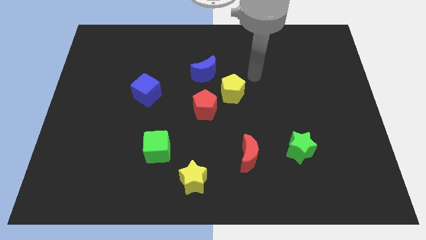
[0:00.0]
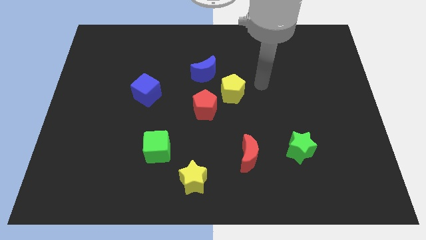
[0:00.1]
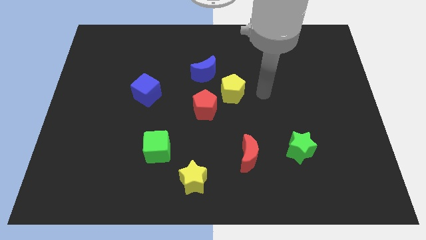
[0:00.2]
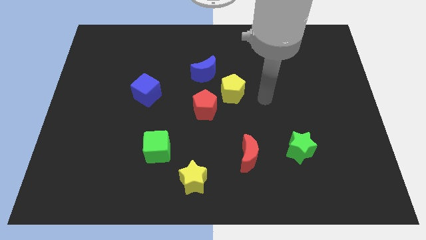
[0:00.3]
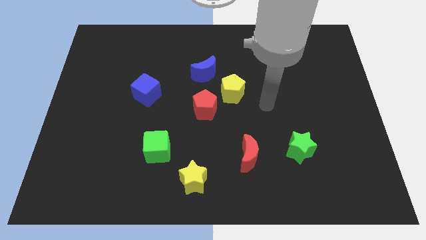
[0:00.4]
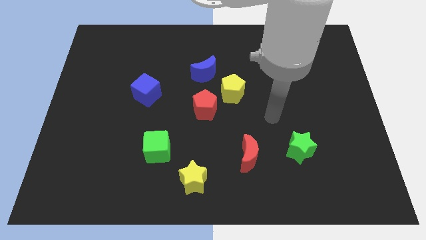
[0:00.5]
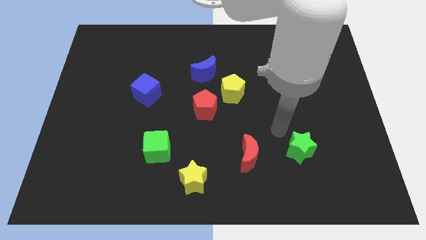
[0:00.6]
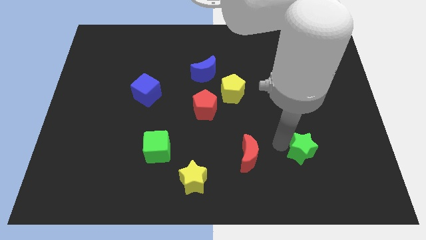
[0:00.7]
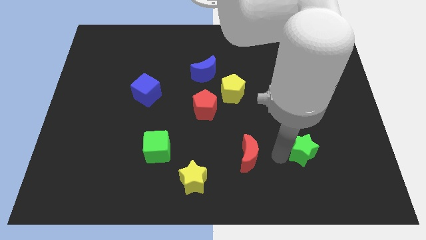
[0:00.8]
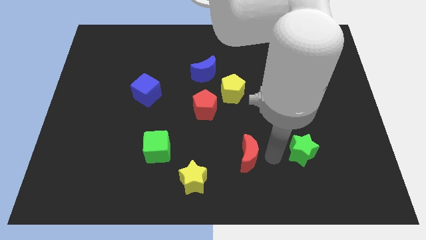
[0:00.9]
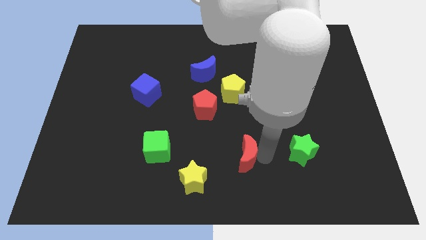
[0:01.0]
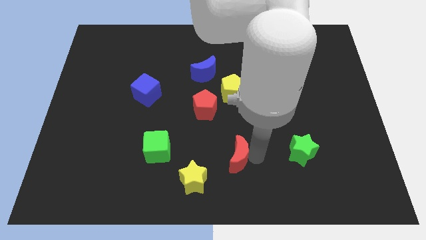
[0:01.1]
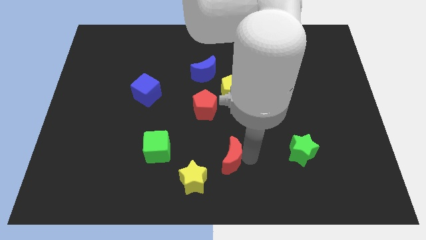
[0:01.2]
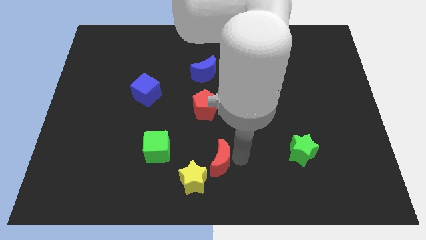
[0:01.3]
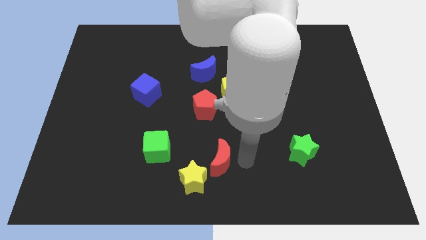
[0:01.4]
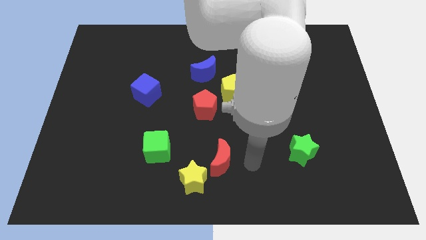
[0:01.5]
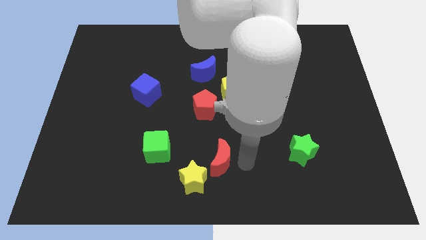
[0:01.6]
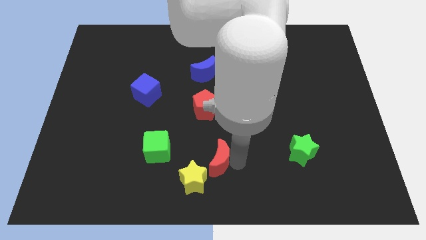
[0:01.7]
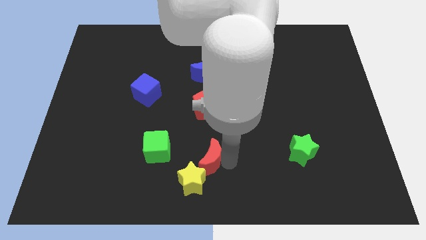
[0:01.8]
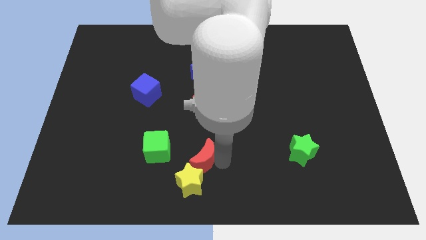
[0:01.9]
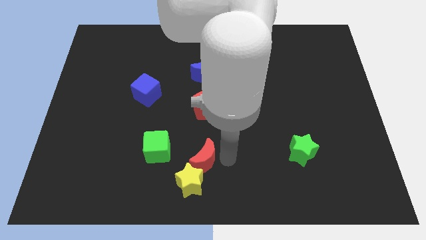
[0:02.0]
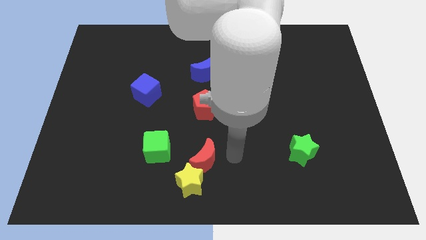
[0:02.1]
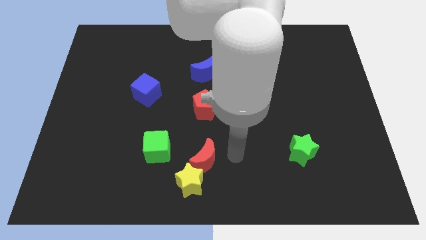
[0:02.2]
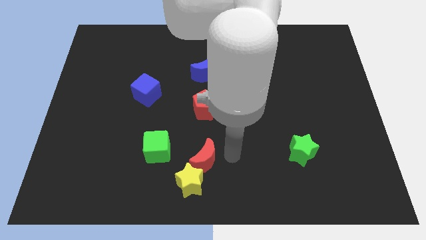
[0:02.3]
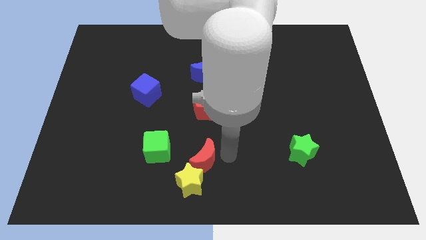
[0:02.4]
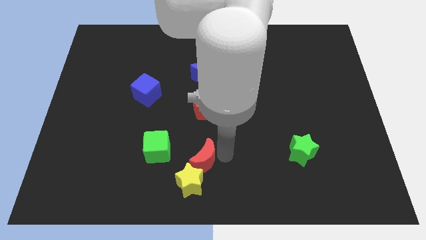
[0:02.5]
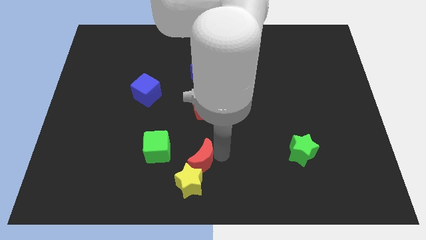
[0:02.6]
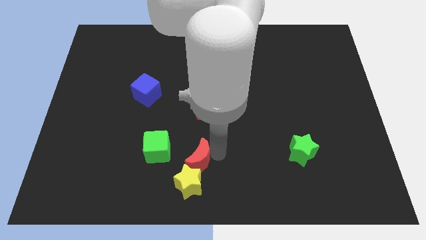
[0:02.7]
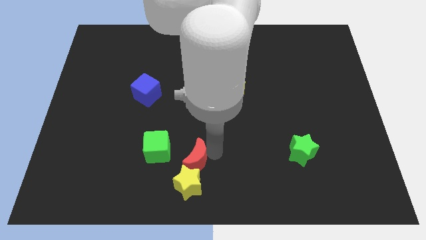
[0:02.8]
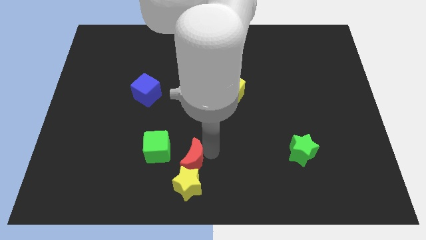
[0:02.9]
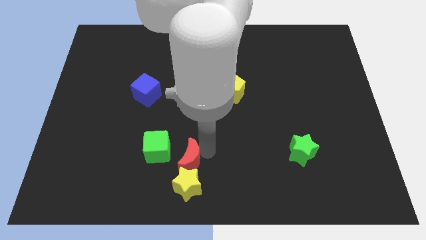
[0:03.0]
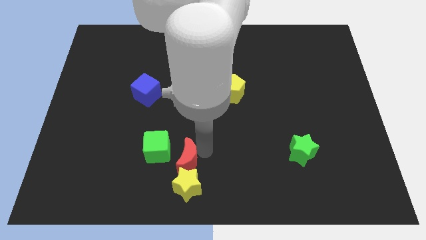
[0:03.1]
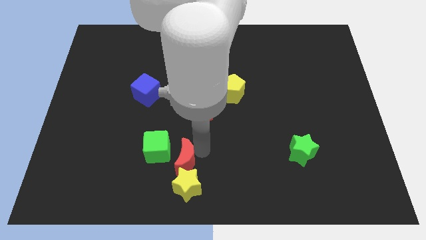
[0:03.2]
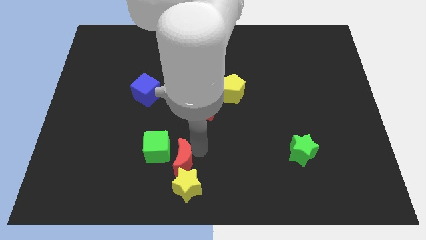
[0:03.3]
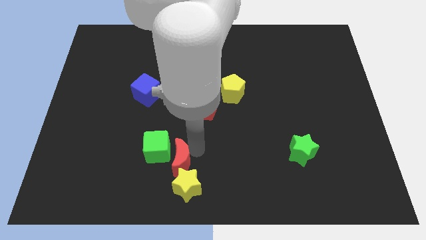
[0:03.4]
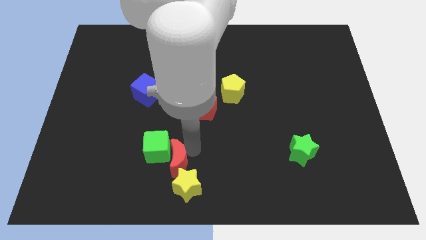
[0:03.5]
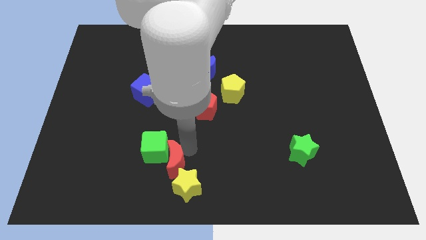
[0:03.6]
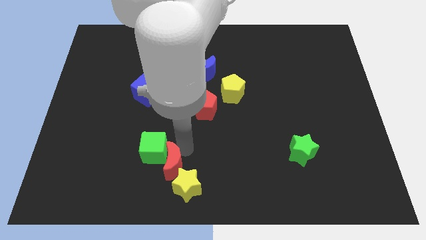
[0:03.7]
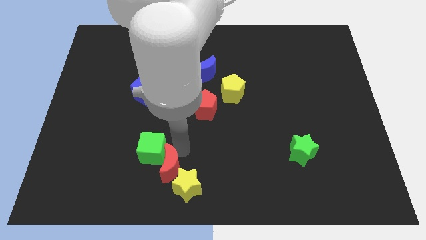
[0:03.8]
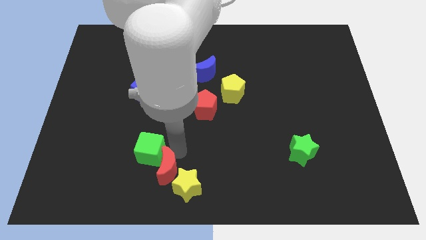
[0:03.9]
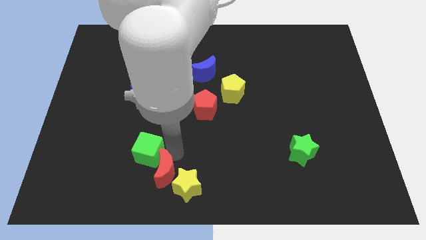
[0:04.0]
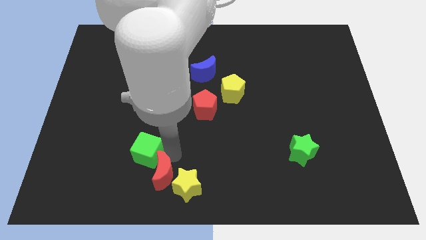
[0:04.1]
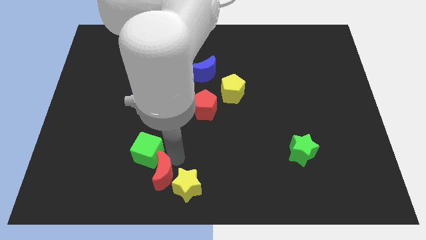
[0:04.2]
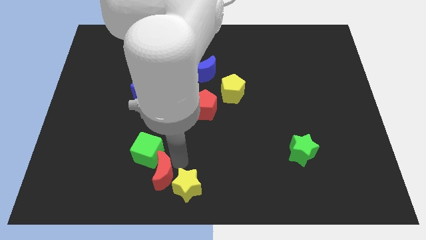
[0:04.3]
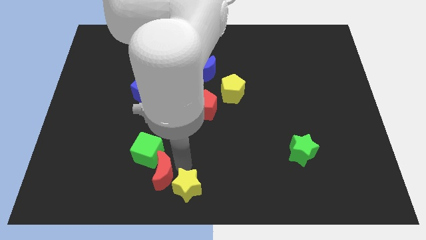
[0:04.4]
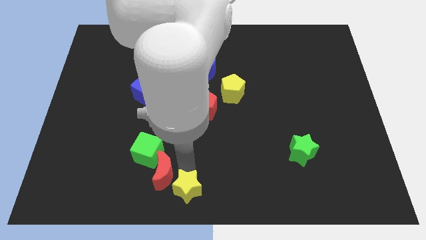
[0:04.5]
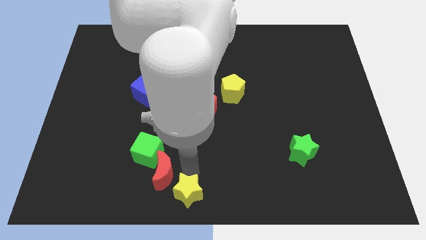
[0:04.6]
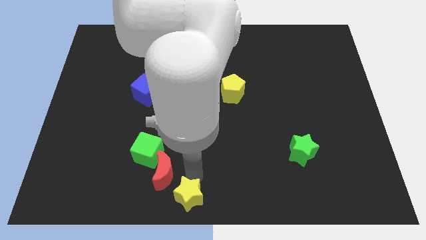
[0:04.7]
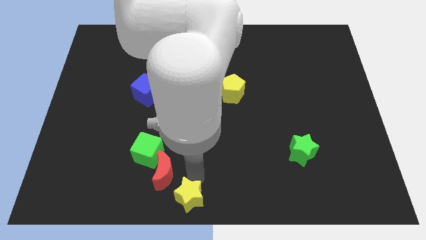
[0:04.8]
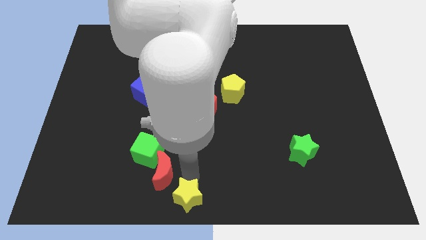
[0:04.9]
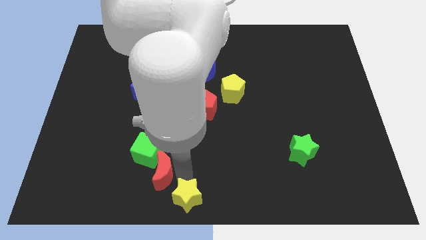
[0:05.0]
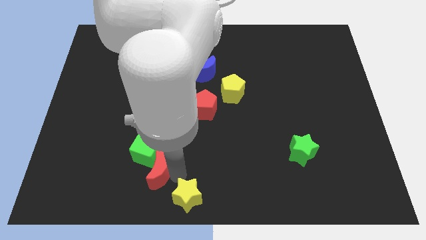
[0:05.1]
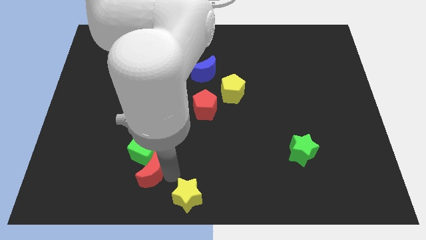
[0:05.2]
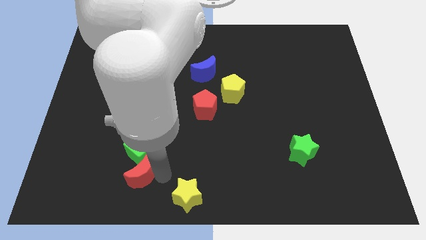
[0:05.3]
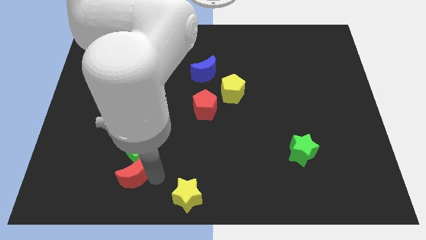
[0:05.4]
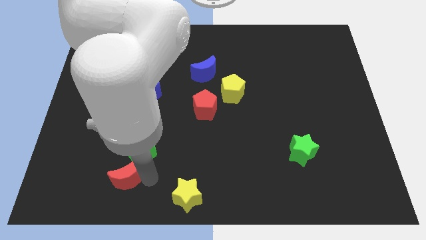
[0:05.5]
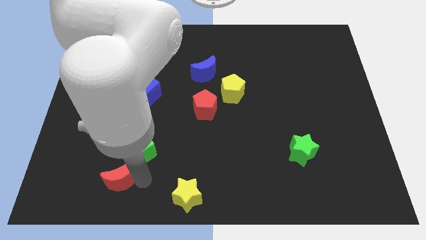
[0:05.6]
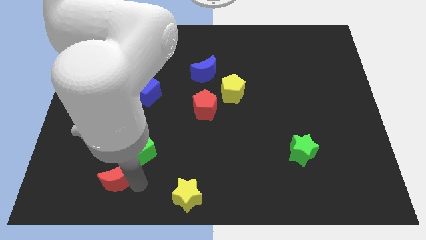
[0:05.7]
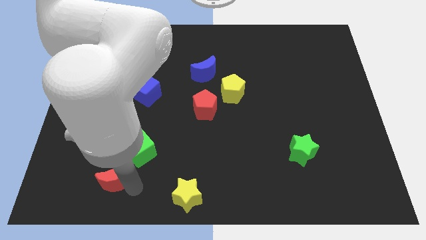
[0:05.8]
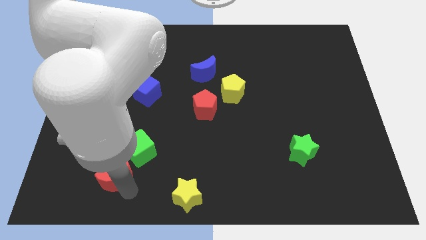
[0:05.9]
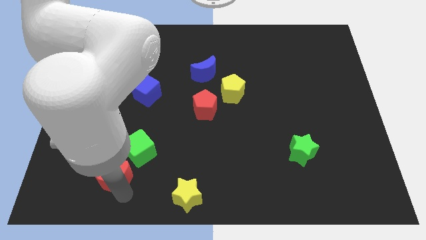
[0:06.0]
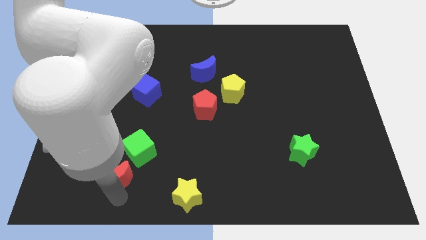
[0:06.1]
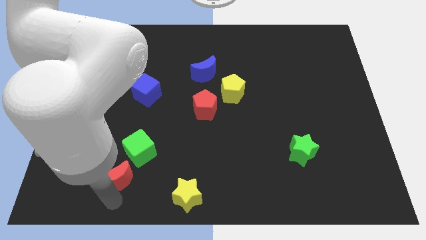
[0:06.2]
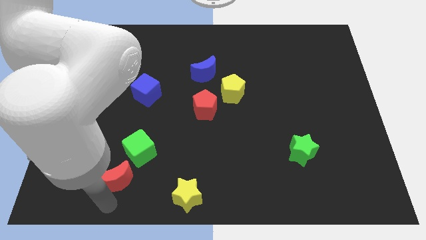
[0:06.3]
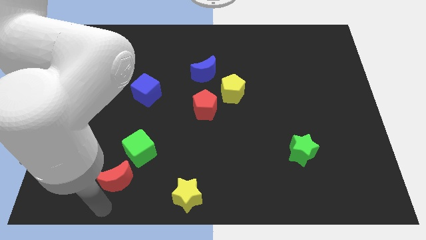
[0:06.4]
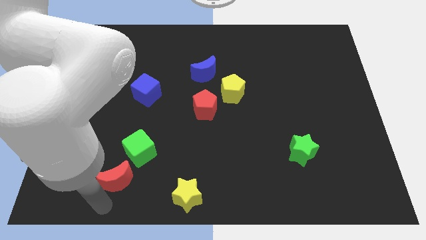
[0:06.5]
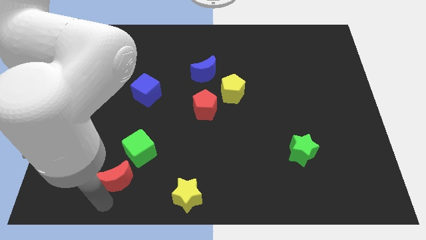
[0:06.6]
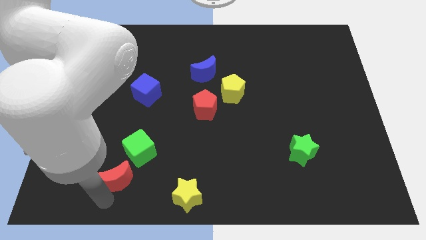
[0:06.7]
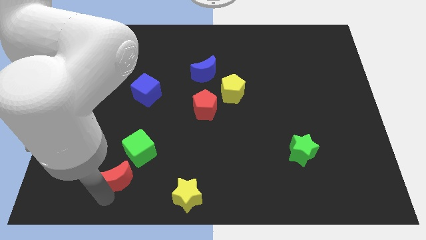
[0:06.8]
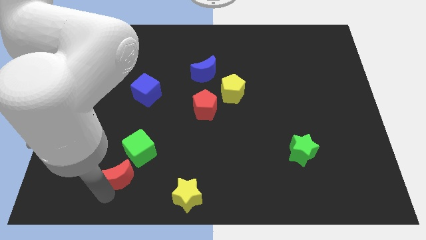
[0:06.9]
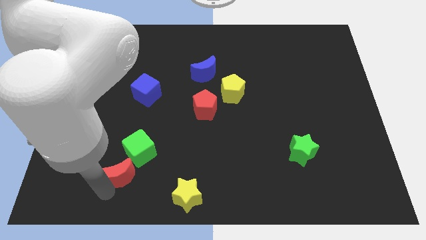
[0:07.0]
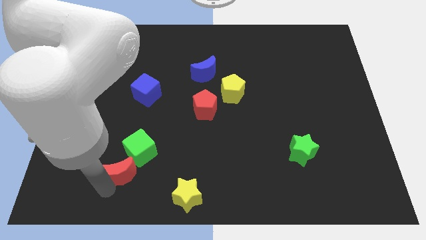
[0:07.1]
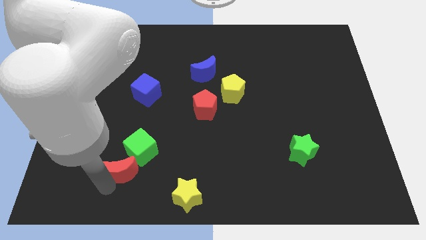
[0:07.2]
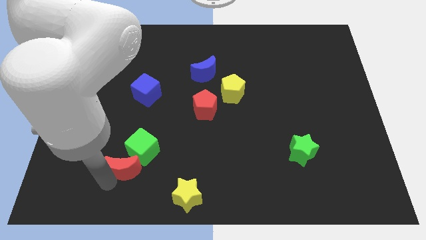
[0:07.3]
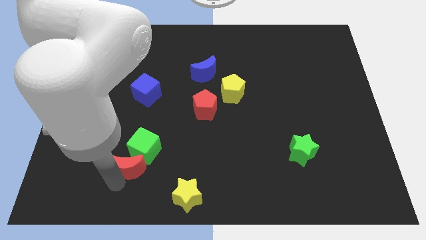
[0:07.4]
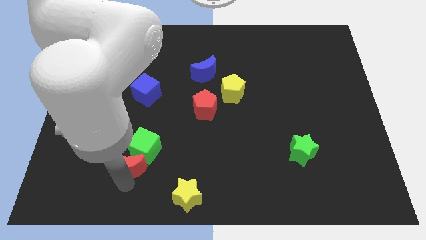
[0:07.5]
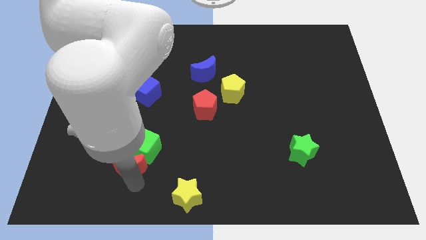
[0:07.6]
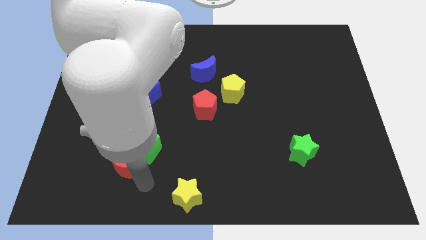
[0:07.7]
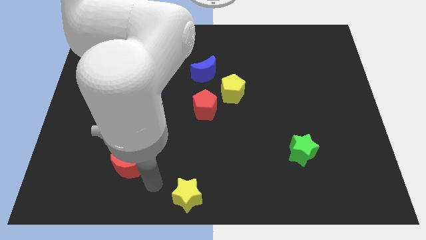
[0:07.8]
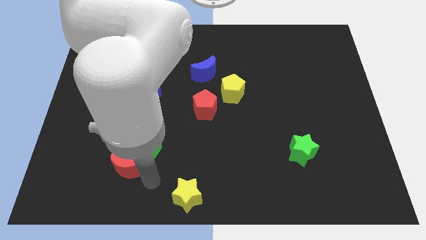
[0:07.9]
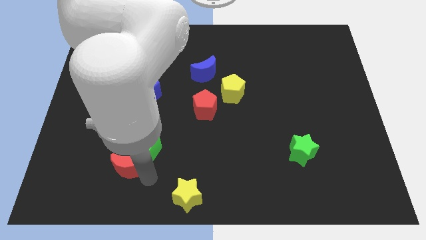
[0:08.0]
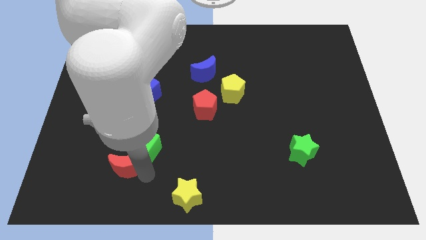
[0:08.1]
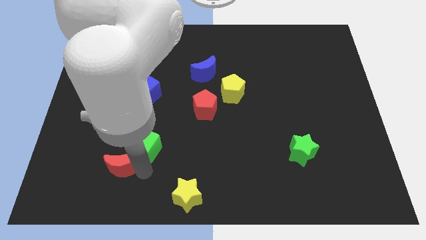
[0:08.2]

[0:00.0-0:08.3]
push the red moon left of the green cube
